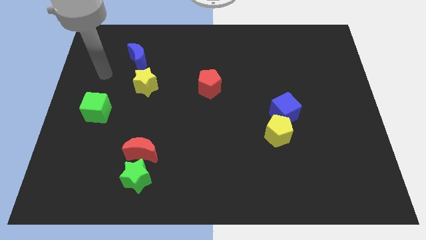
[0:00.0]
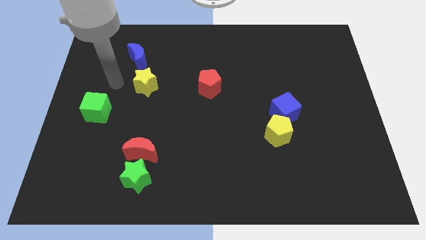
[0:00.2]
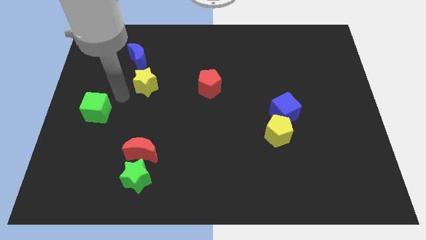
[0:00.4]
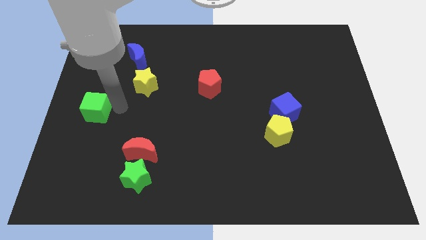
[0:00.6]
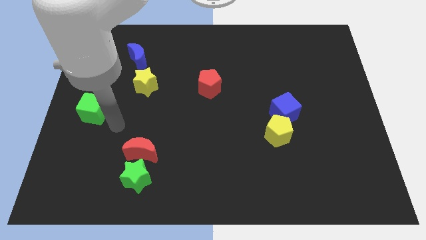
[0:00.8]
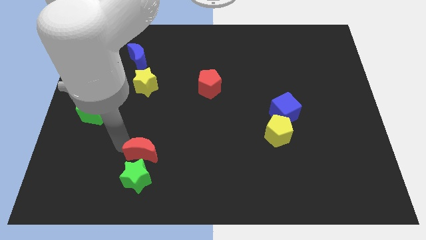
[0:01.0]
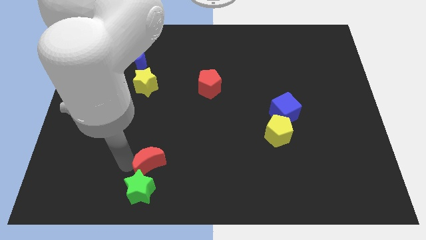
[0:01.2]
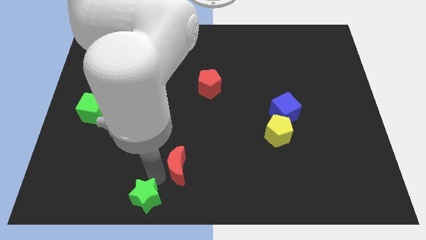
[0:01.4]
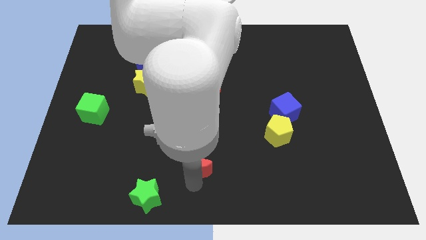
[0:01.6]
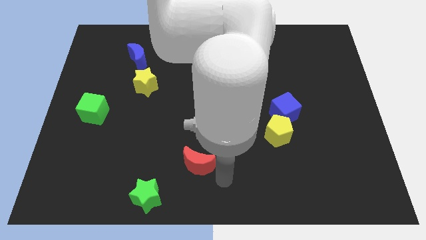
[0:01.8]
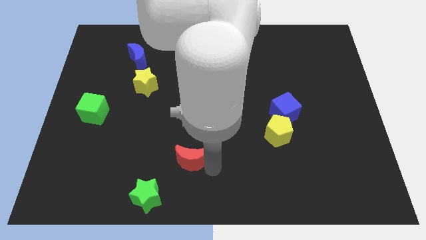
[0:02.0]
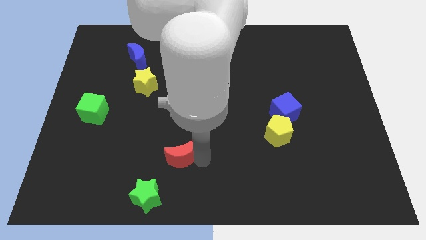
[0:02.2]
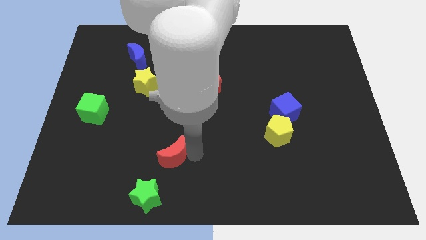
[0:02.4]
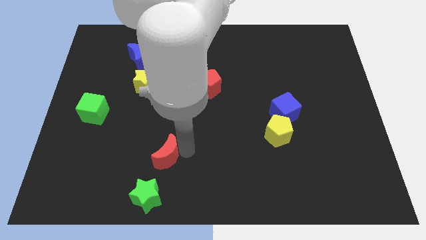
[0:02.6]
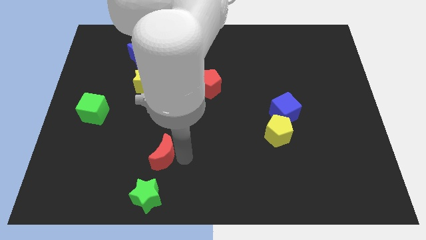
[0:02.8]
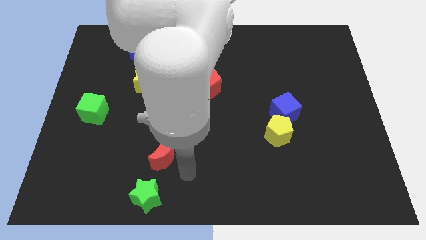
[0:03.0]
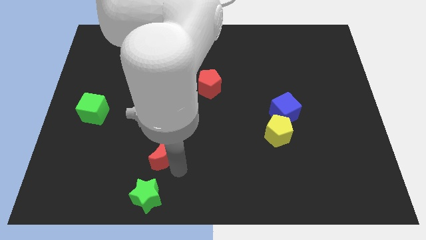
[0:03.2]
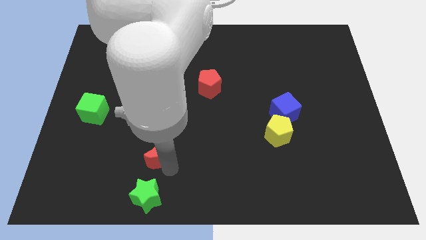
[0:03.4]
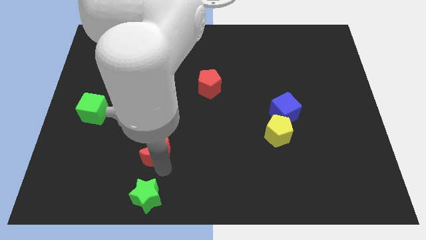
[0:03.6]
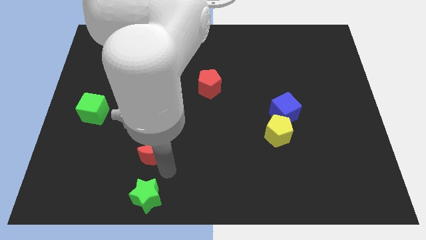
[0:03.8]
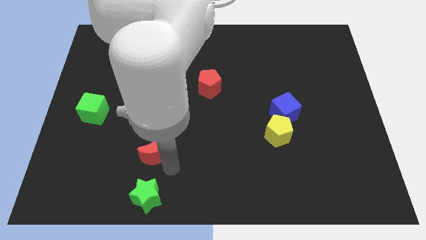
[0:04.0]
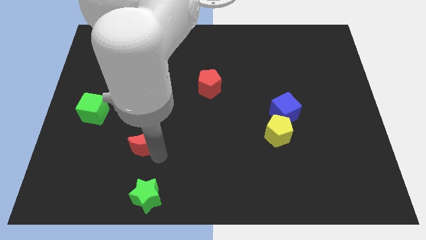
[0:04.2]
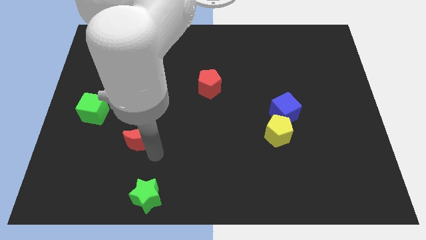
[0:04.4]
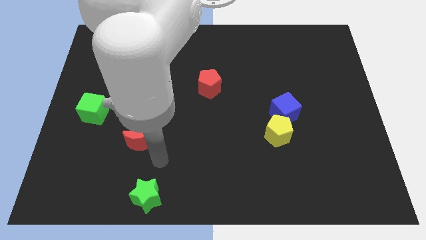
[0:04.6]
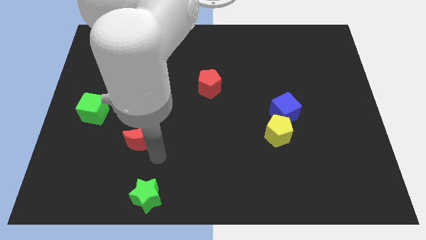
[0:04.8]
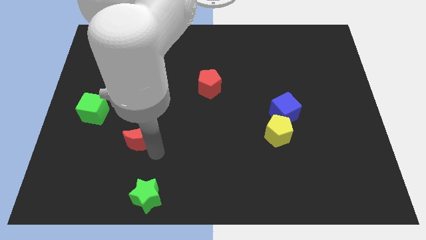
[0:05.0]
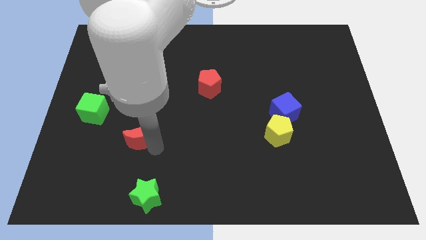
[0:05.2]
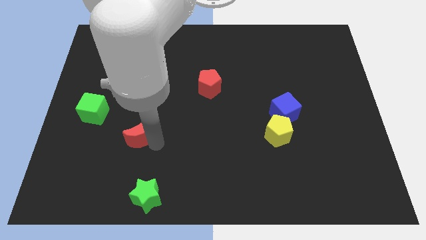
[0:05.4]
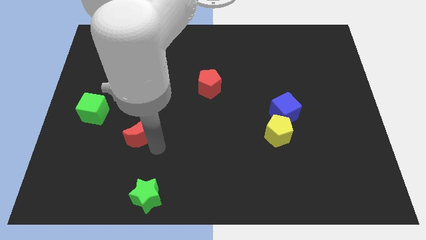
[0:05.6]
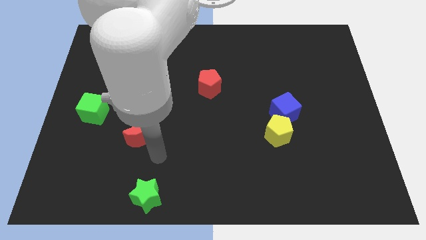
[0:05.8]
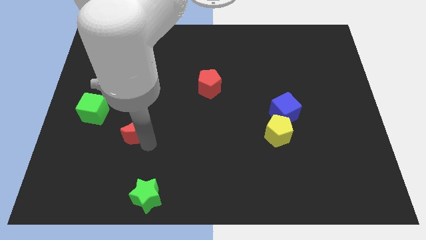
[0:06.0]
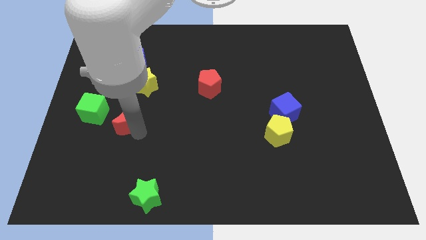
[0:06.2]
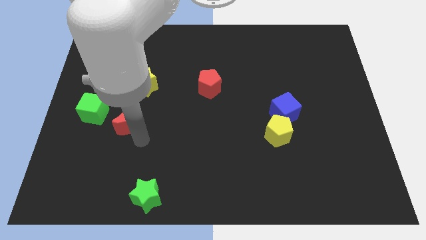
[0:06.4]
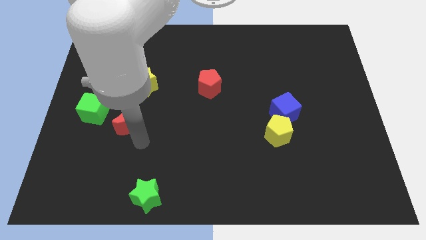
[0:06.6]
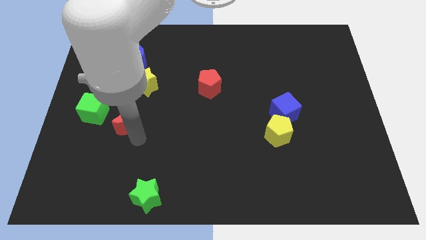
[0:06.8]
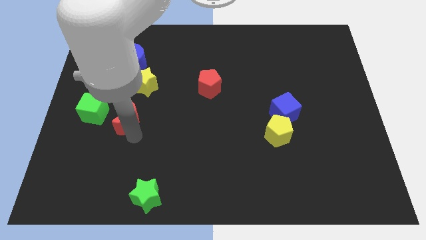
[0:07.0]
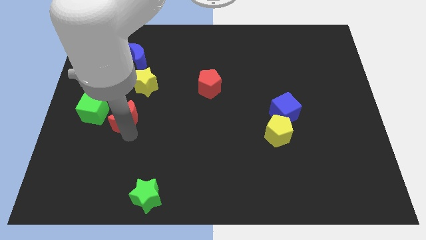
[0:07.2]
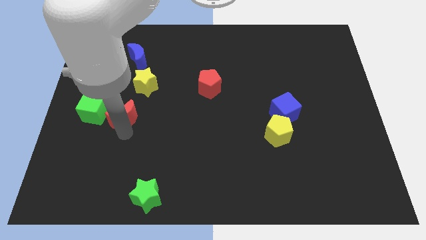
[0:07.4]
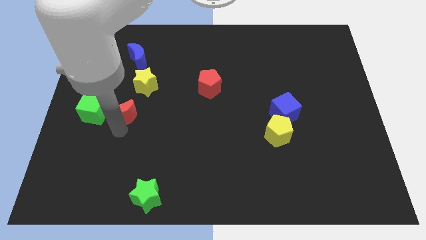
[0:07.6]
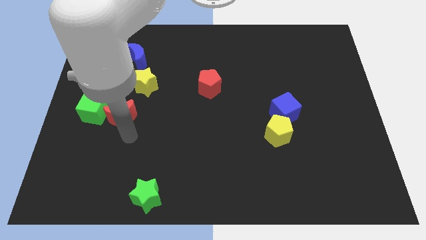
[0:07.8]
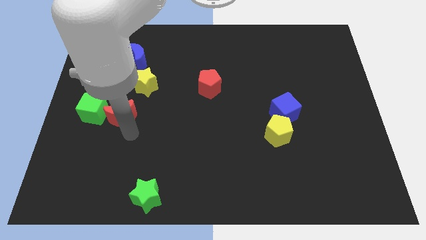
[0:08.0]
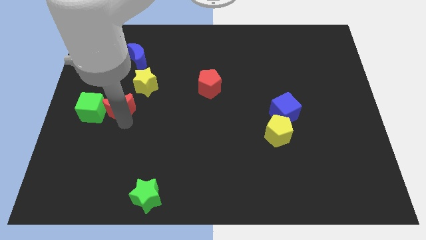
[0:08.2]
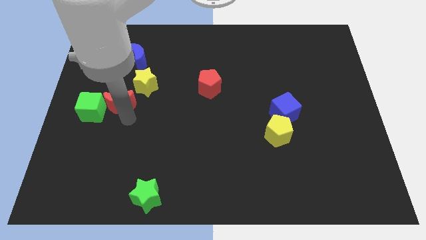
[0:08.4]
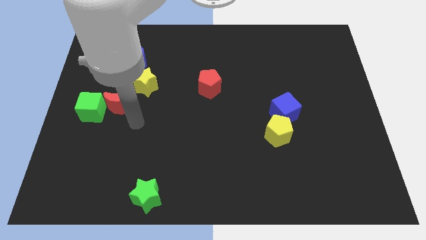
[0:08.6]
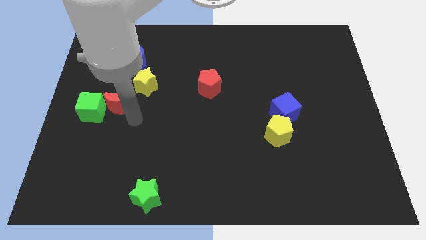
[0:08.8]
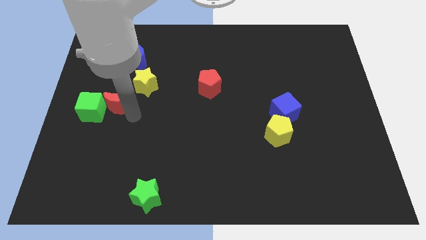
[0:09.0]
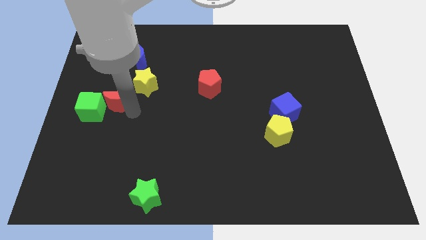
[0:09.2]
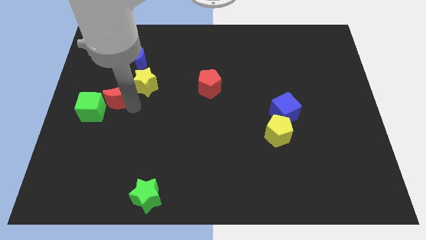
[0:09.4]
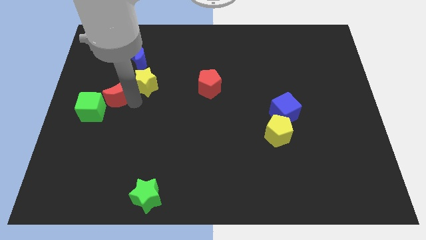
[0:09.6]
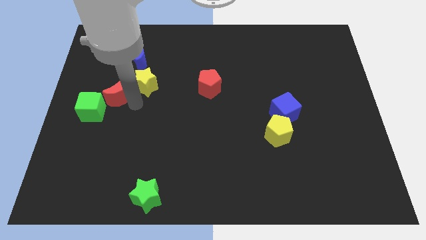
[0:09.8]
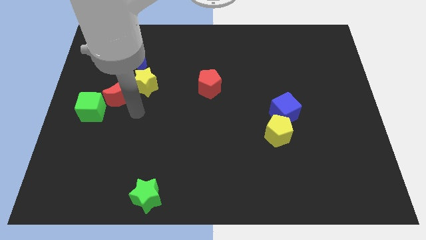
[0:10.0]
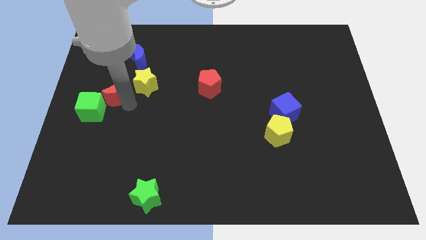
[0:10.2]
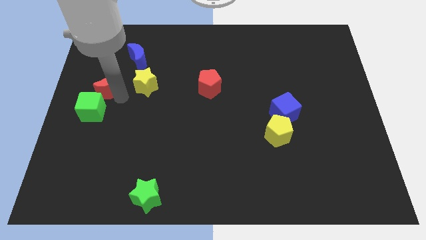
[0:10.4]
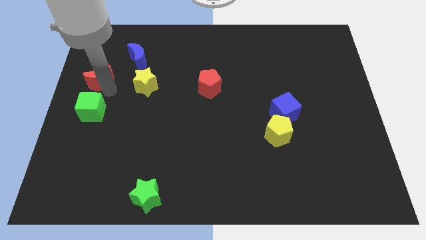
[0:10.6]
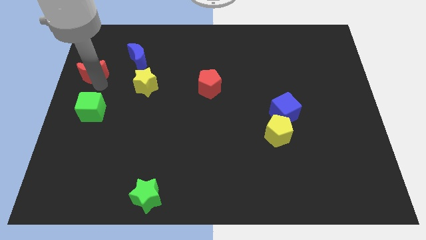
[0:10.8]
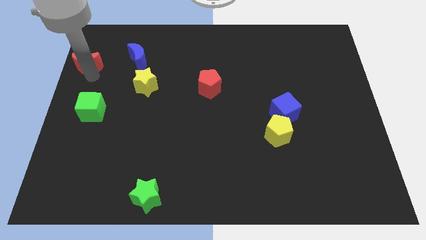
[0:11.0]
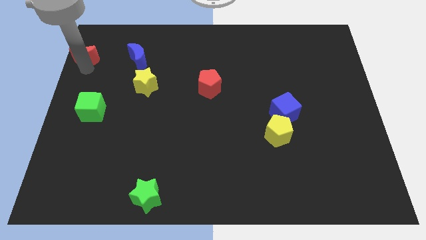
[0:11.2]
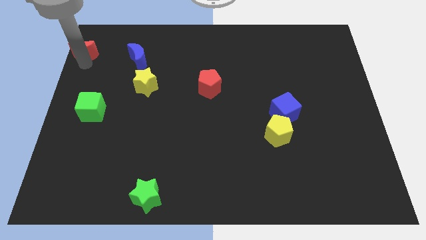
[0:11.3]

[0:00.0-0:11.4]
slide the red moon to the upper left corner

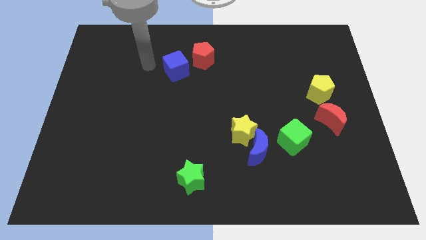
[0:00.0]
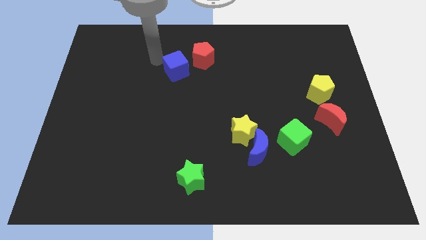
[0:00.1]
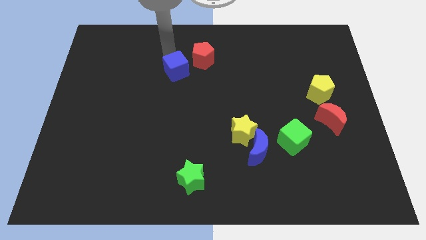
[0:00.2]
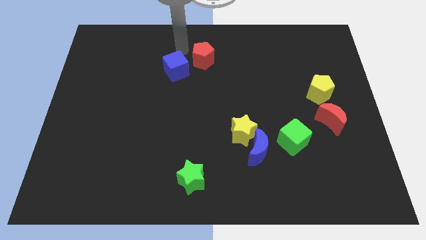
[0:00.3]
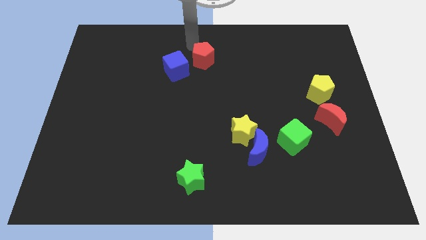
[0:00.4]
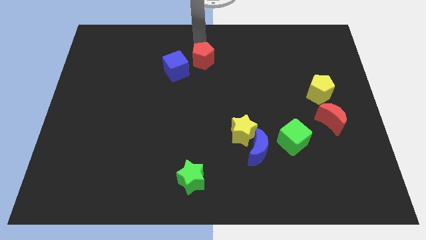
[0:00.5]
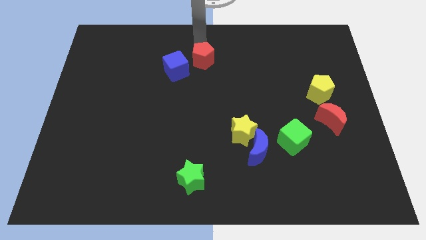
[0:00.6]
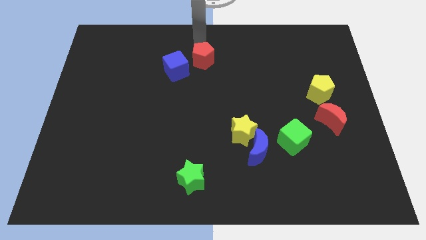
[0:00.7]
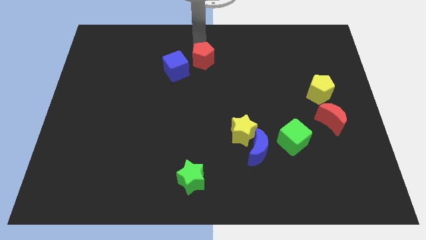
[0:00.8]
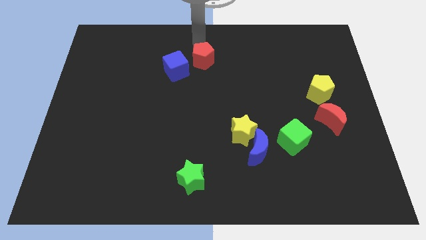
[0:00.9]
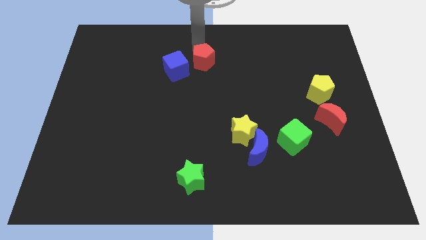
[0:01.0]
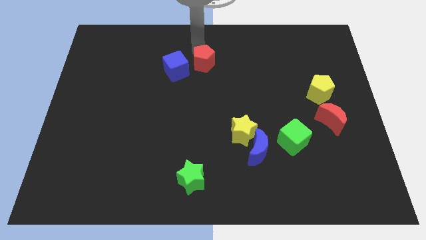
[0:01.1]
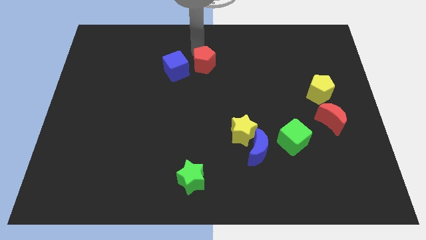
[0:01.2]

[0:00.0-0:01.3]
move the red pentagon to the middle of the board
